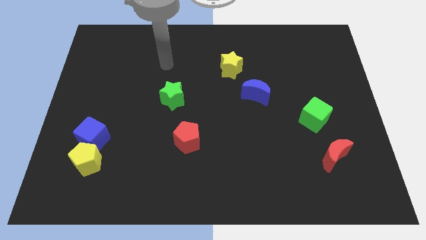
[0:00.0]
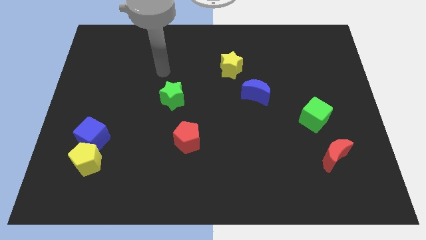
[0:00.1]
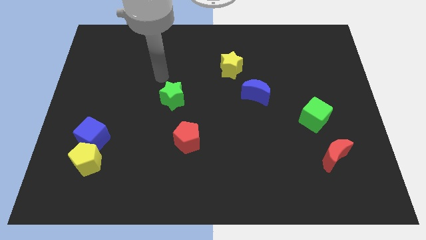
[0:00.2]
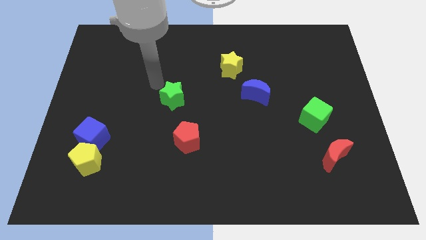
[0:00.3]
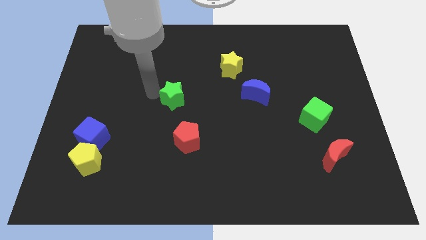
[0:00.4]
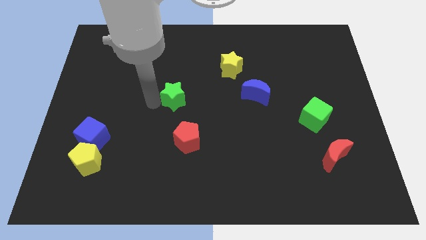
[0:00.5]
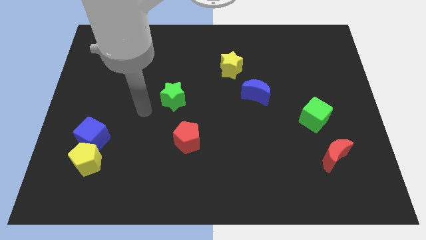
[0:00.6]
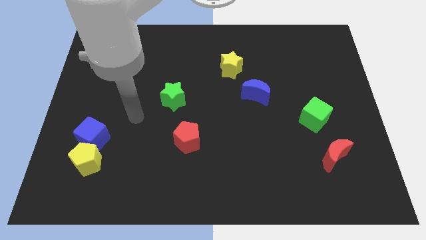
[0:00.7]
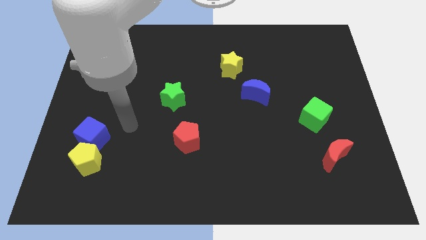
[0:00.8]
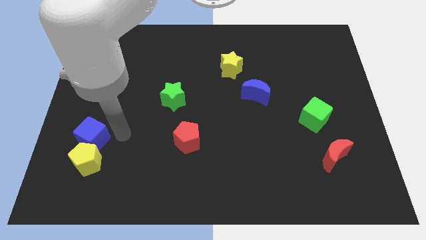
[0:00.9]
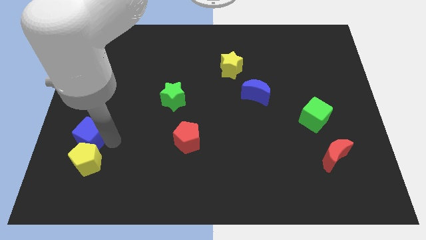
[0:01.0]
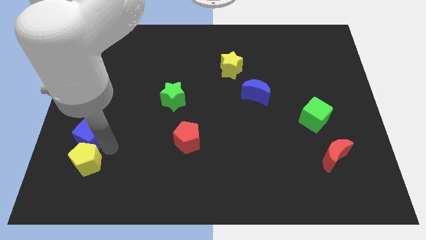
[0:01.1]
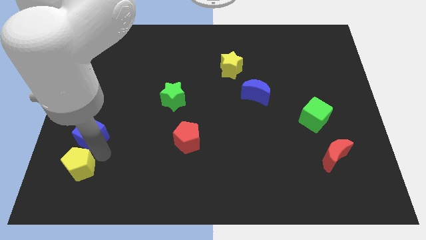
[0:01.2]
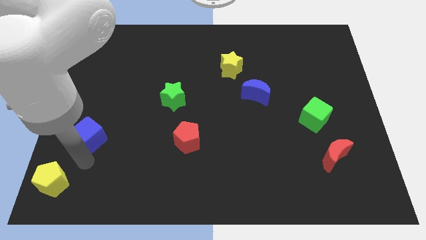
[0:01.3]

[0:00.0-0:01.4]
separate the blue cube from the yellow pentagon

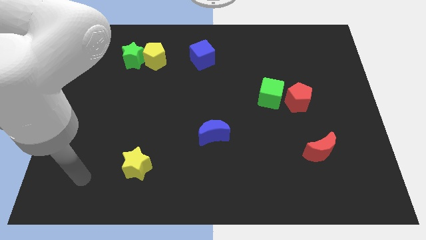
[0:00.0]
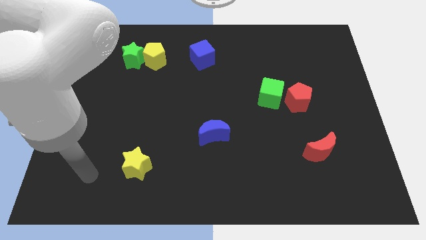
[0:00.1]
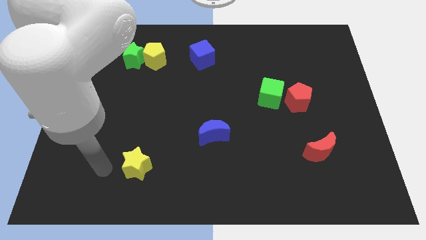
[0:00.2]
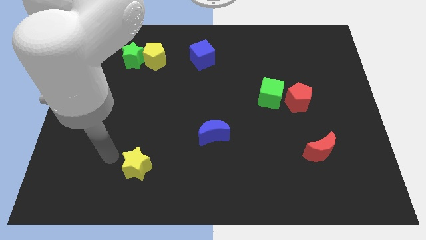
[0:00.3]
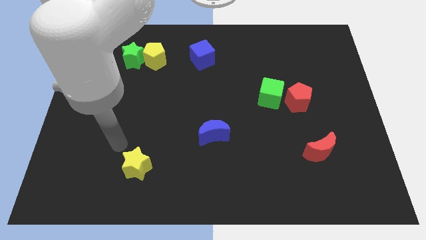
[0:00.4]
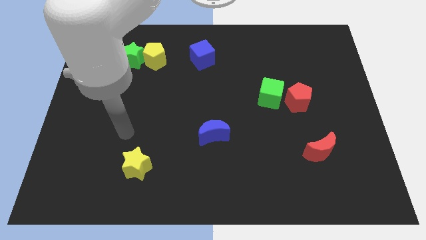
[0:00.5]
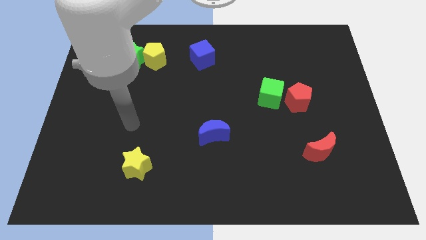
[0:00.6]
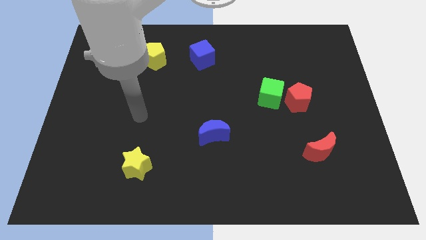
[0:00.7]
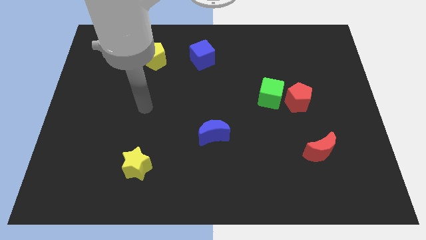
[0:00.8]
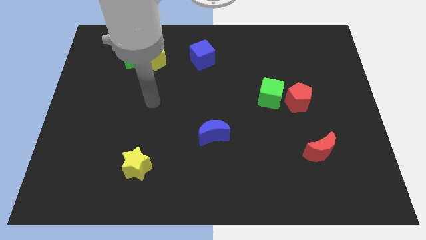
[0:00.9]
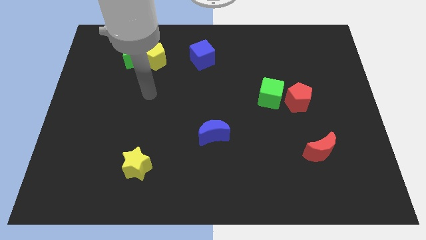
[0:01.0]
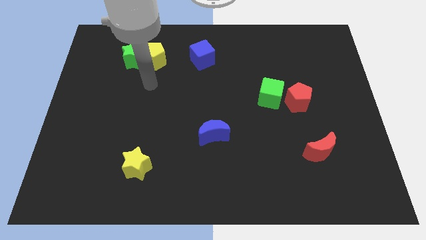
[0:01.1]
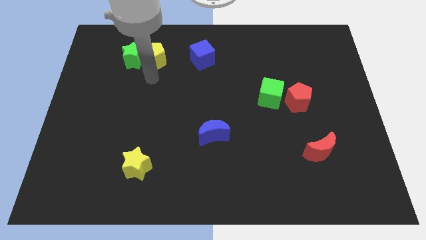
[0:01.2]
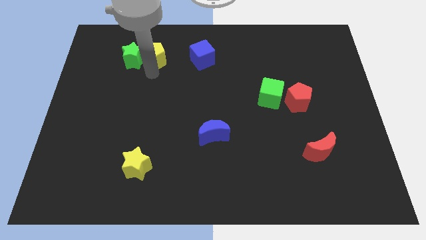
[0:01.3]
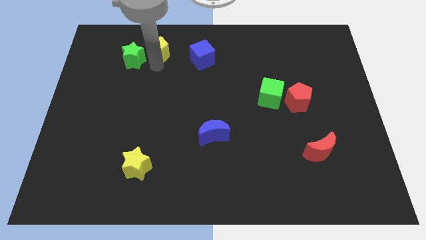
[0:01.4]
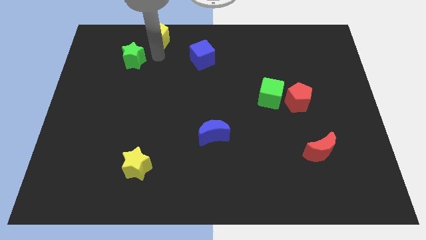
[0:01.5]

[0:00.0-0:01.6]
separate the green star from the yellow pentagon

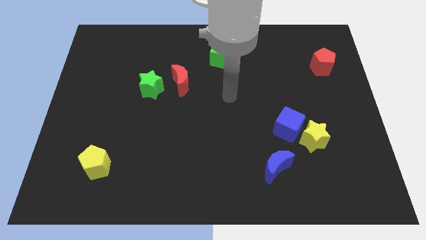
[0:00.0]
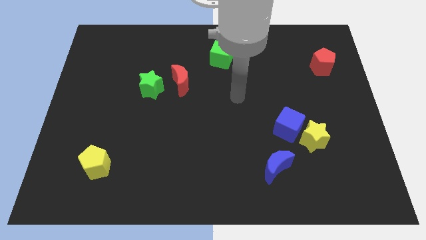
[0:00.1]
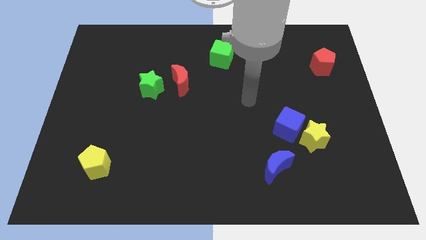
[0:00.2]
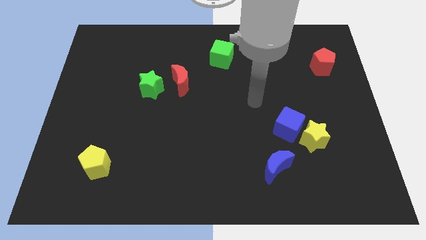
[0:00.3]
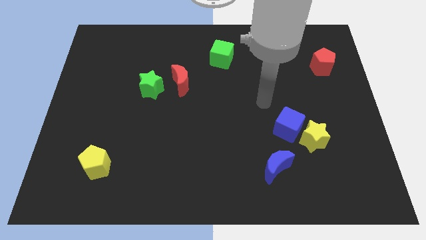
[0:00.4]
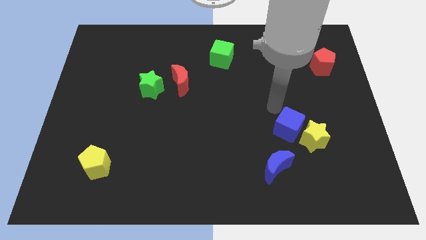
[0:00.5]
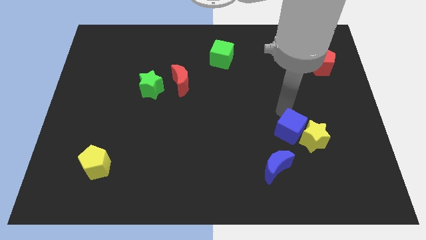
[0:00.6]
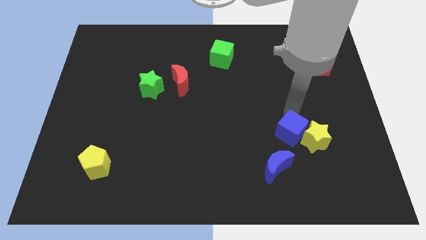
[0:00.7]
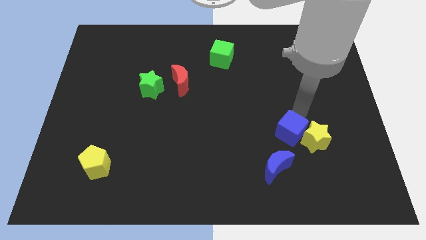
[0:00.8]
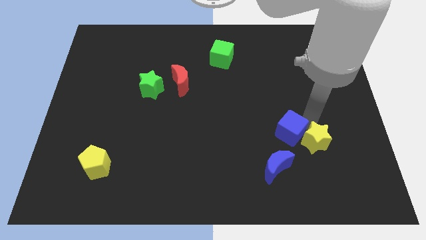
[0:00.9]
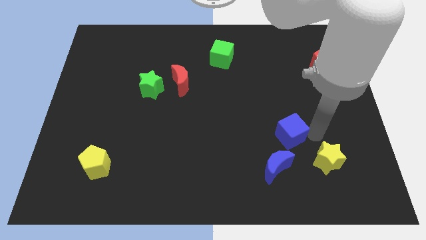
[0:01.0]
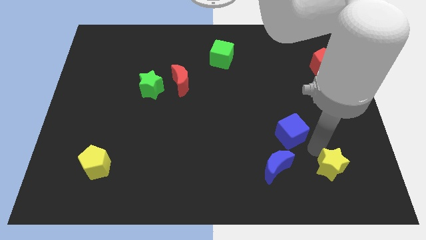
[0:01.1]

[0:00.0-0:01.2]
move the blue cube away from the yellow star

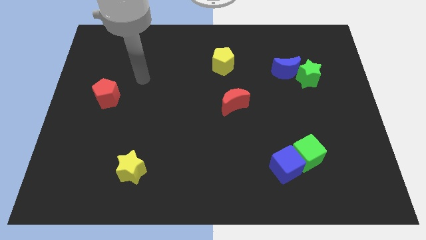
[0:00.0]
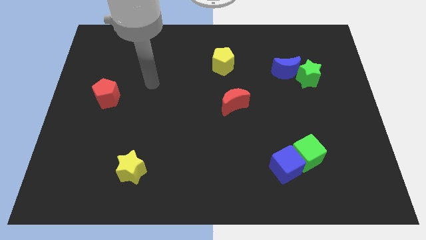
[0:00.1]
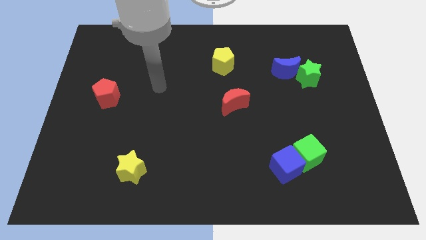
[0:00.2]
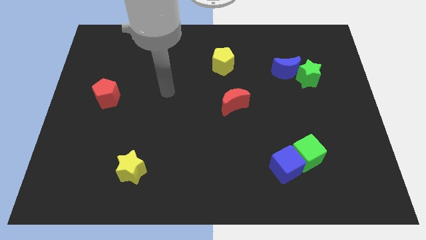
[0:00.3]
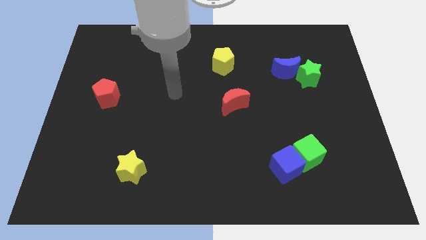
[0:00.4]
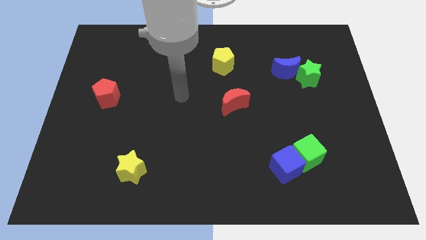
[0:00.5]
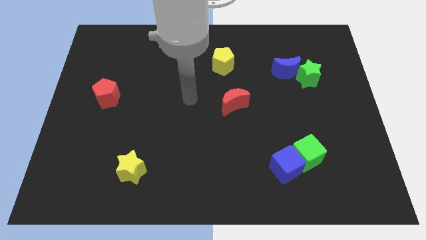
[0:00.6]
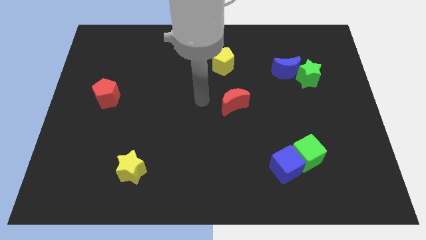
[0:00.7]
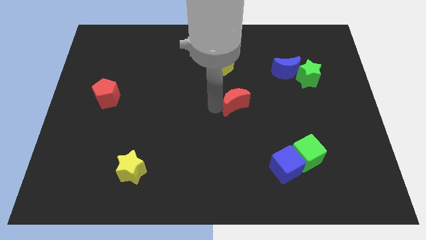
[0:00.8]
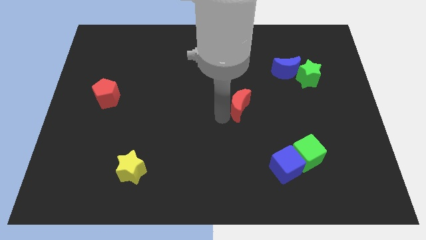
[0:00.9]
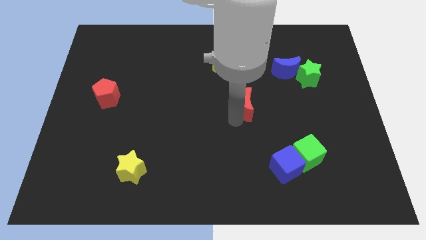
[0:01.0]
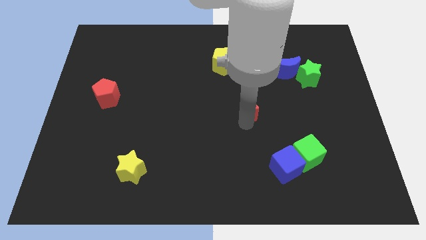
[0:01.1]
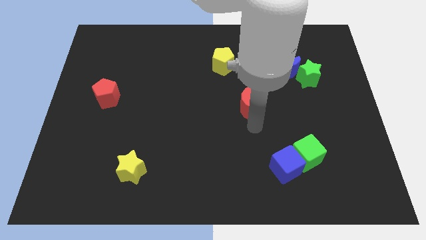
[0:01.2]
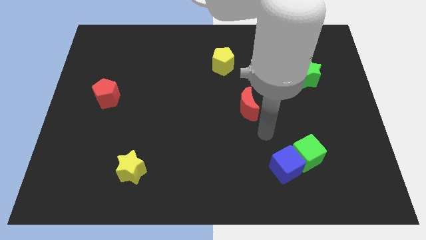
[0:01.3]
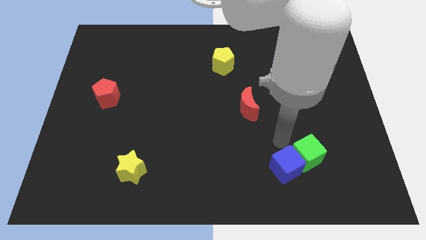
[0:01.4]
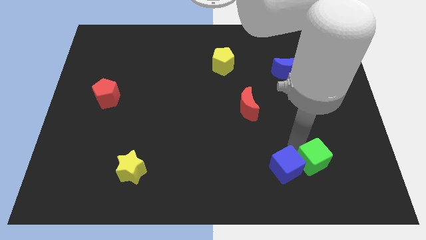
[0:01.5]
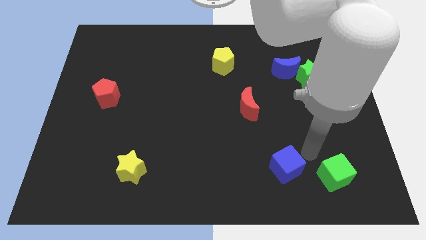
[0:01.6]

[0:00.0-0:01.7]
move the blue cube away from the green cube

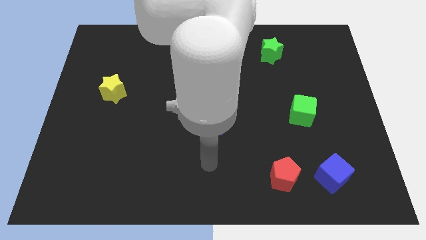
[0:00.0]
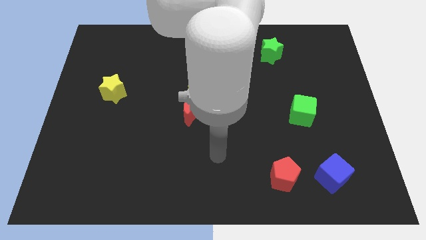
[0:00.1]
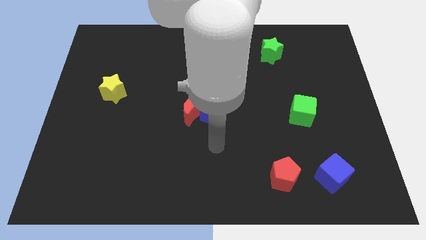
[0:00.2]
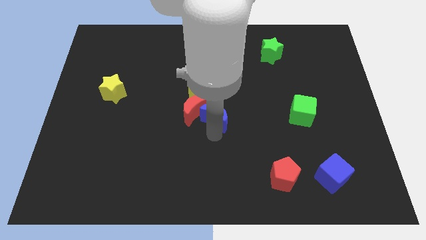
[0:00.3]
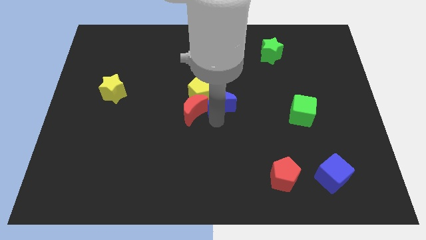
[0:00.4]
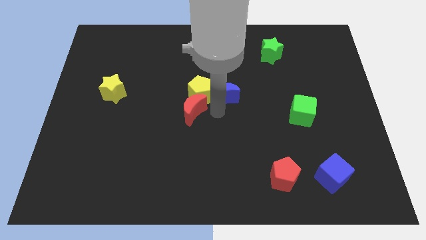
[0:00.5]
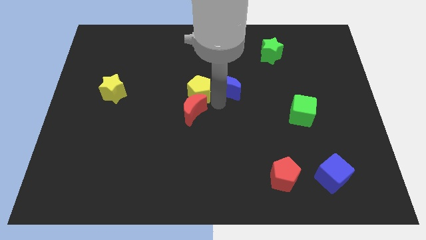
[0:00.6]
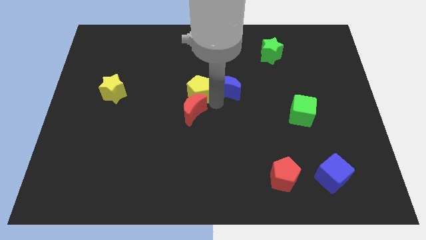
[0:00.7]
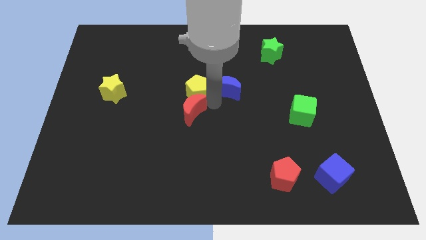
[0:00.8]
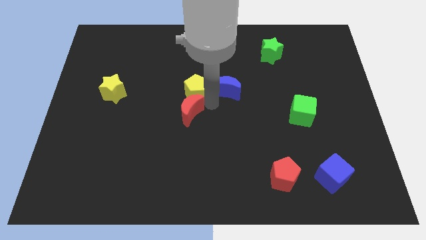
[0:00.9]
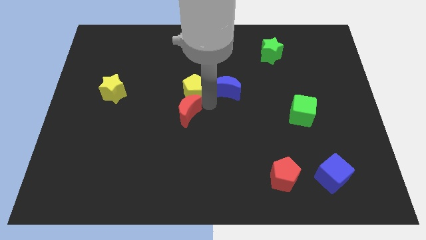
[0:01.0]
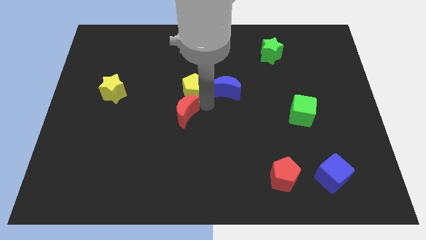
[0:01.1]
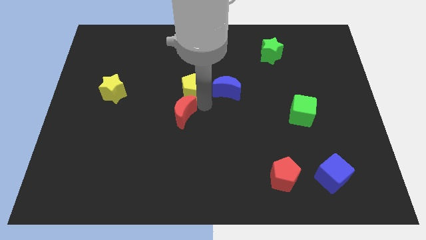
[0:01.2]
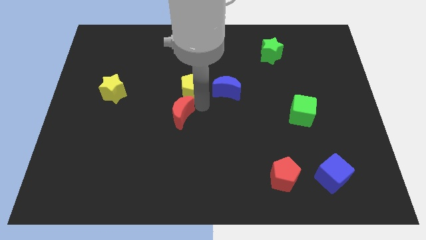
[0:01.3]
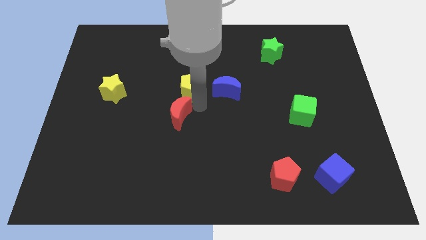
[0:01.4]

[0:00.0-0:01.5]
move the red moon away from the blue moon and yellow pentagon

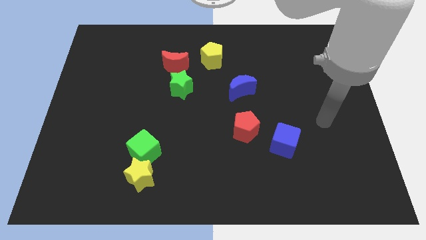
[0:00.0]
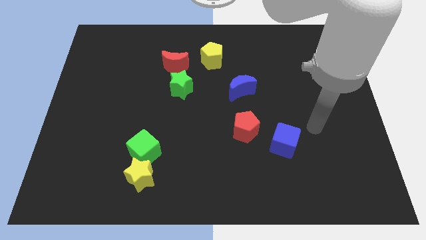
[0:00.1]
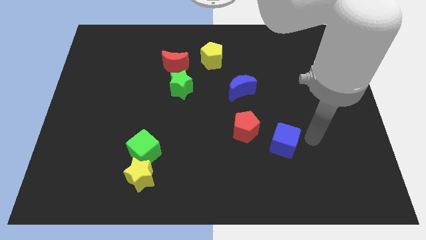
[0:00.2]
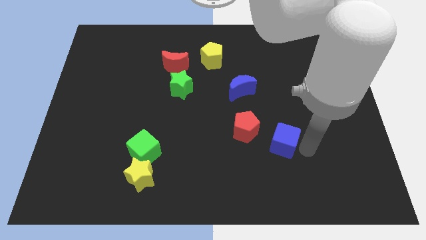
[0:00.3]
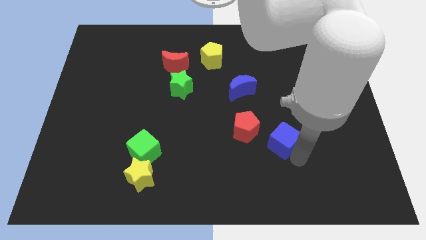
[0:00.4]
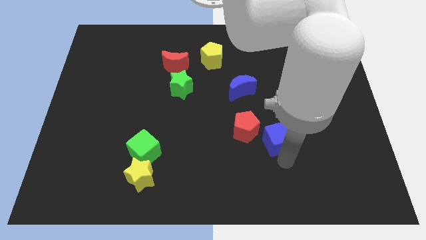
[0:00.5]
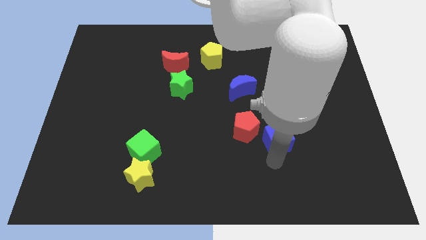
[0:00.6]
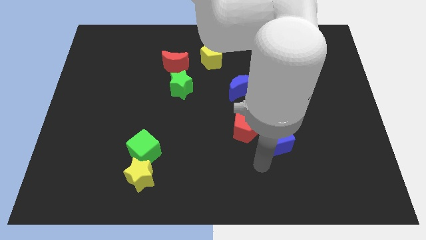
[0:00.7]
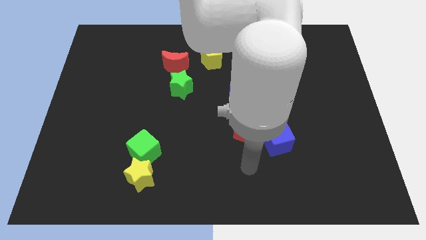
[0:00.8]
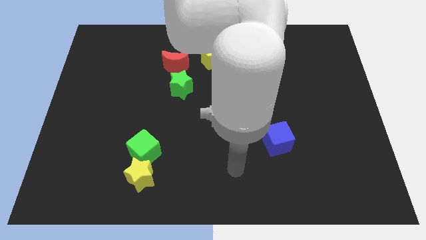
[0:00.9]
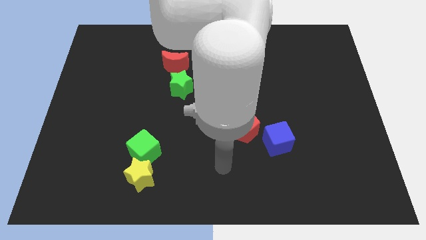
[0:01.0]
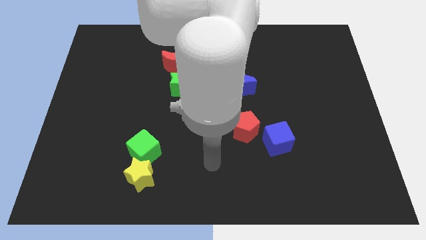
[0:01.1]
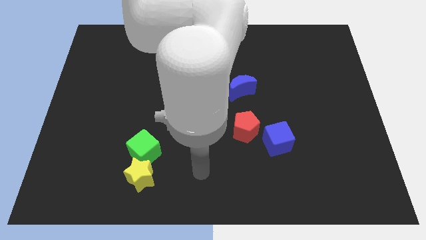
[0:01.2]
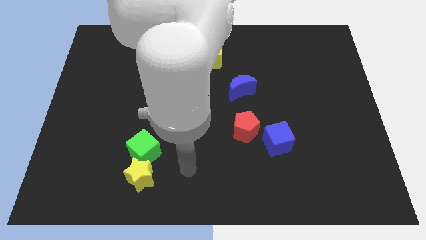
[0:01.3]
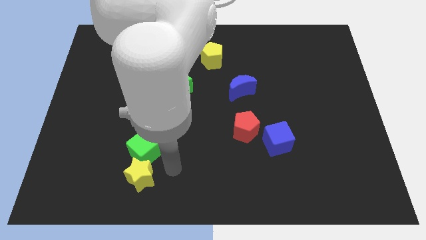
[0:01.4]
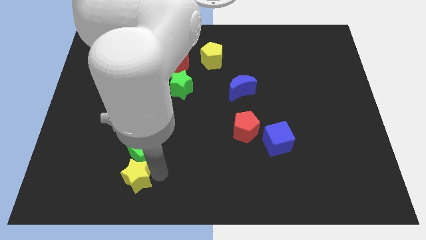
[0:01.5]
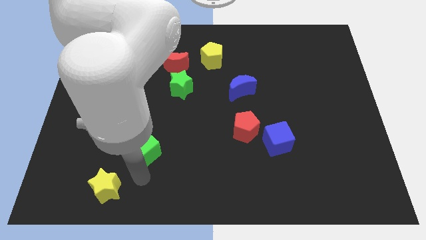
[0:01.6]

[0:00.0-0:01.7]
pull the green cube apart from the yellow star

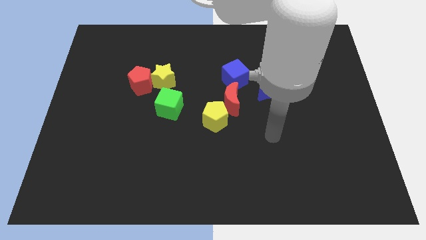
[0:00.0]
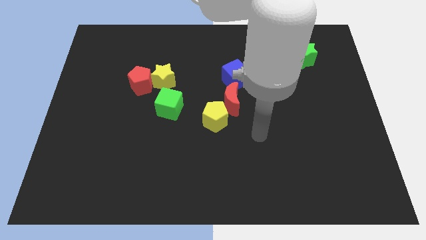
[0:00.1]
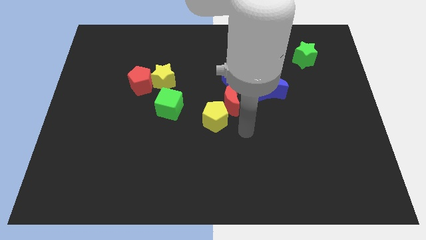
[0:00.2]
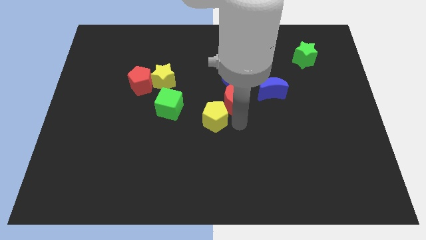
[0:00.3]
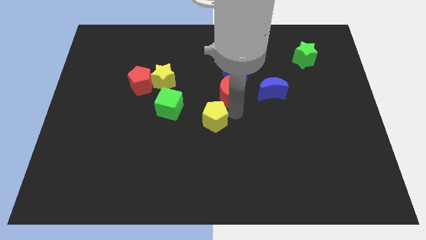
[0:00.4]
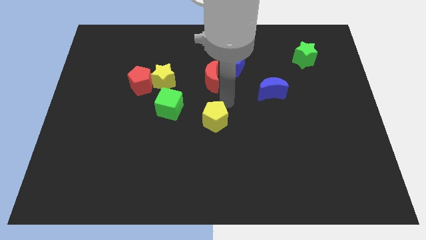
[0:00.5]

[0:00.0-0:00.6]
separate the yellow pentagon from the red moon
